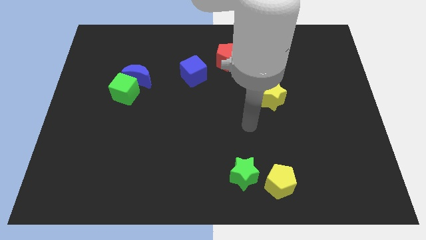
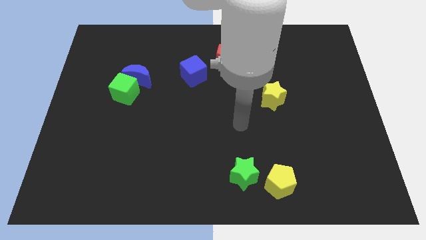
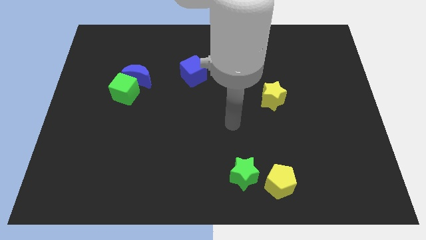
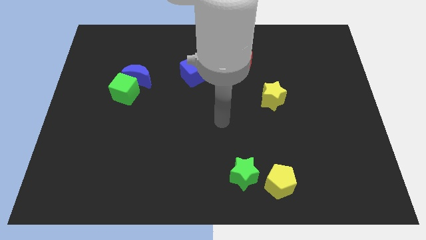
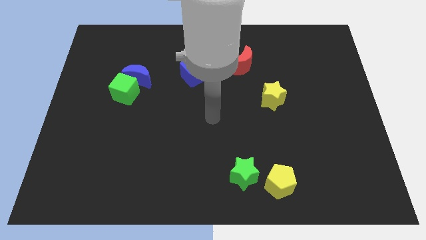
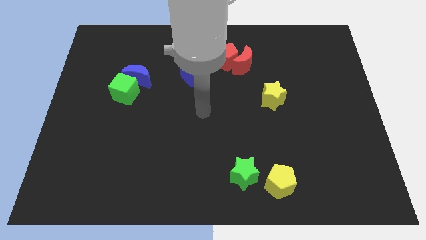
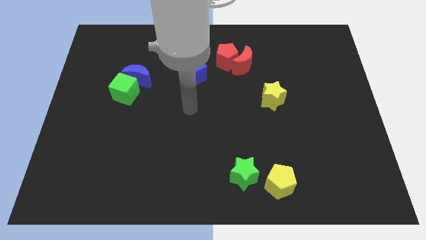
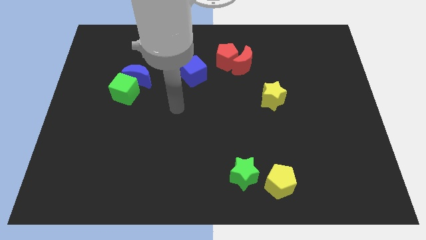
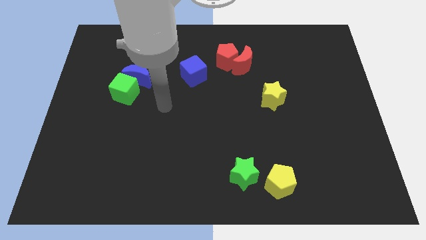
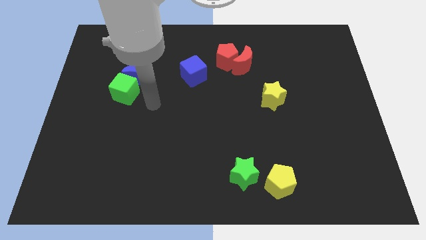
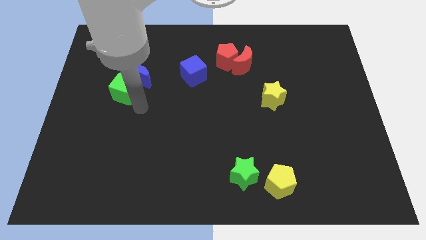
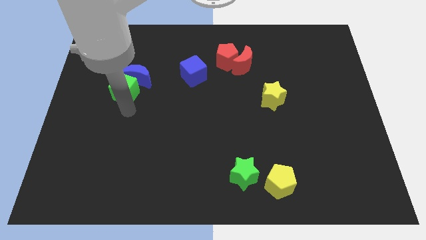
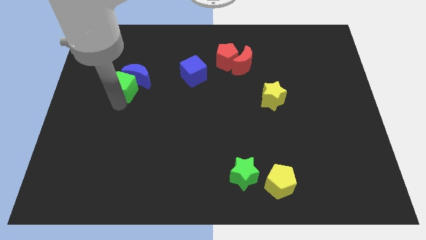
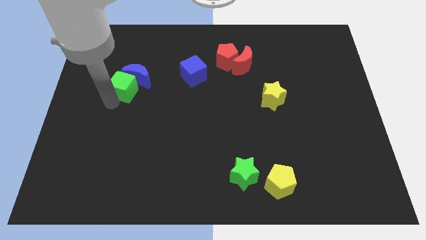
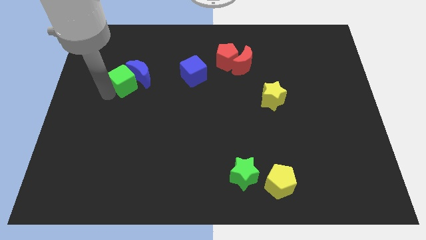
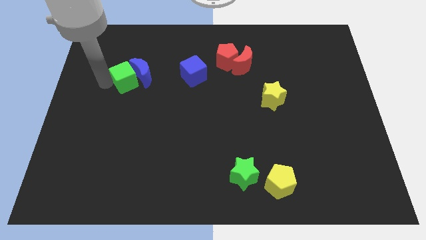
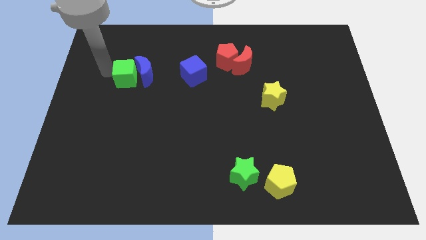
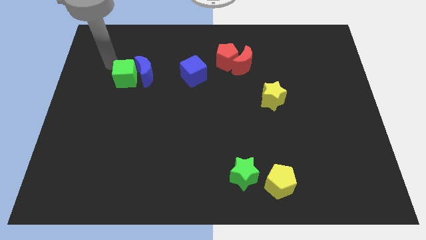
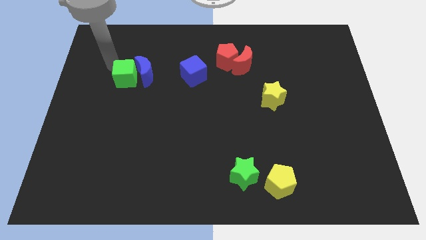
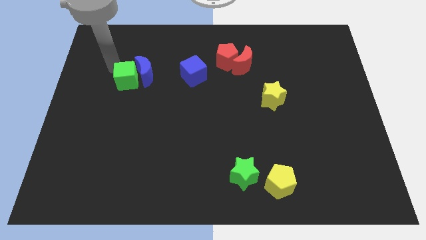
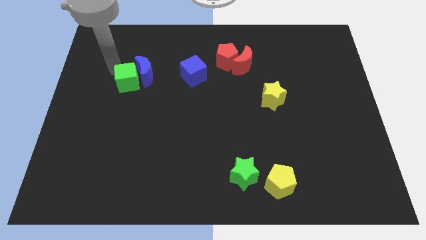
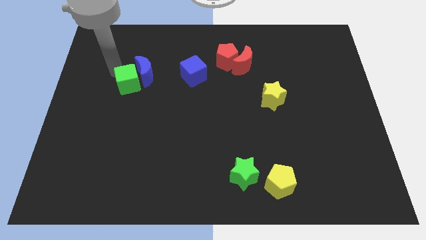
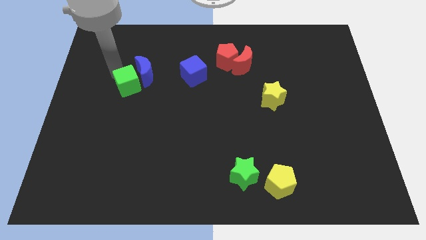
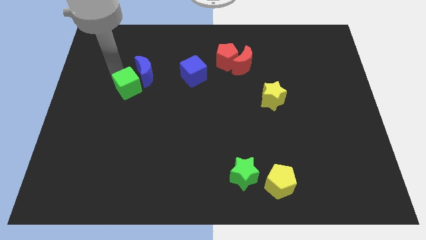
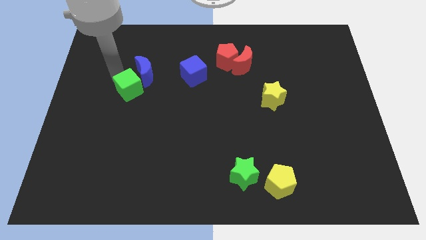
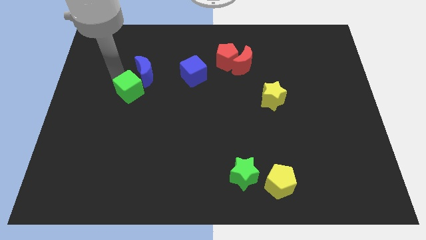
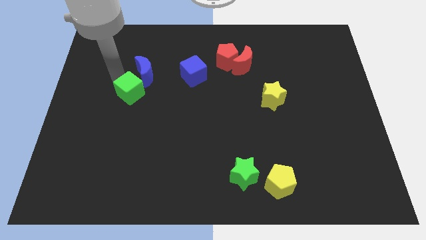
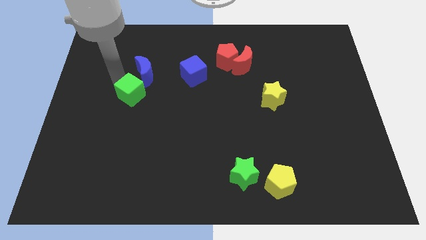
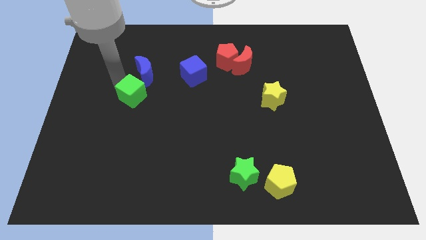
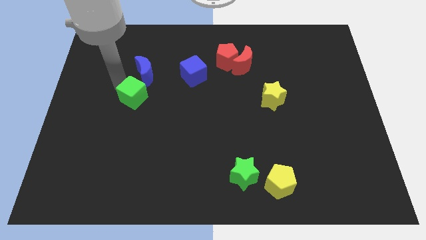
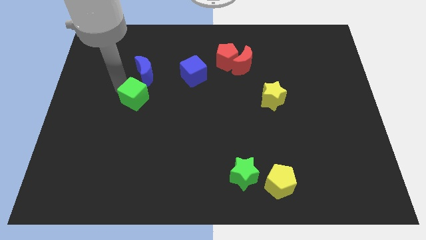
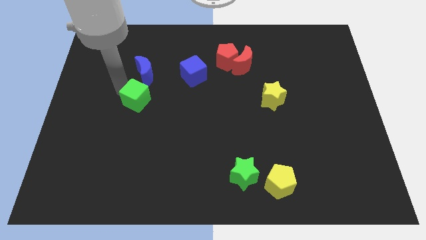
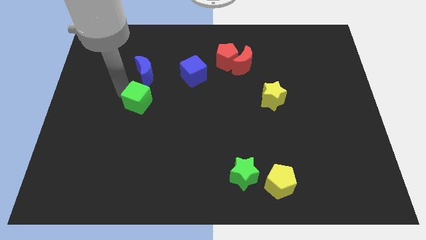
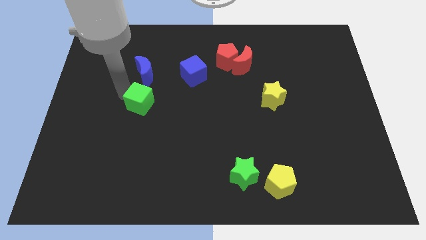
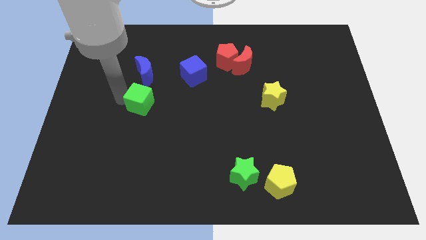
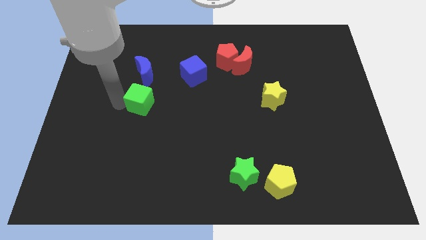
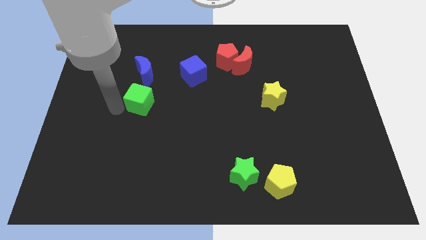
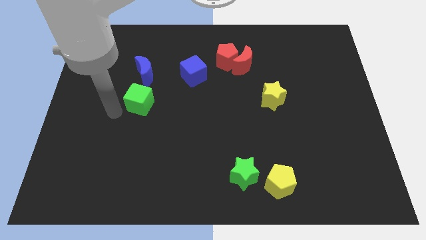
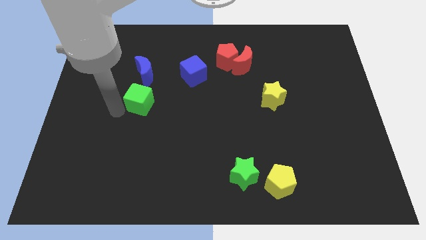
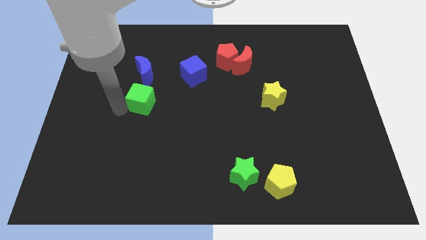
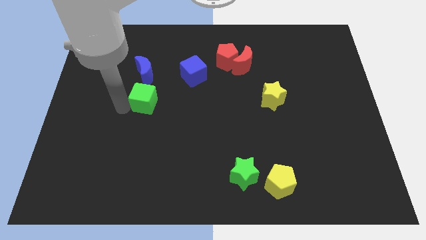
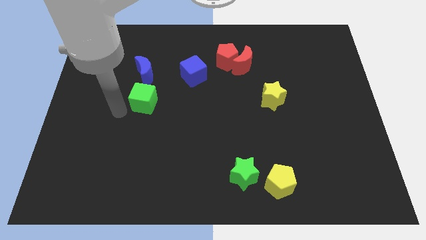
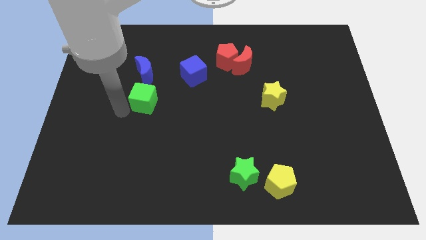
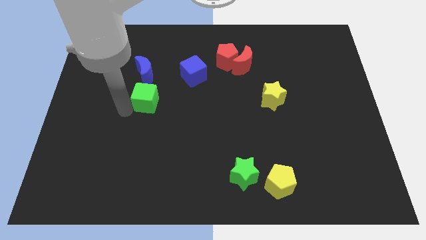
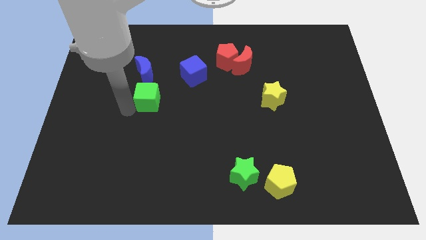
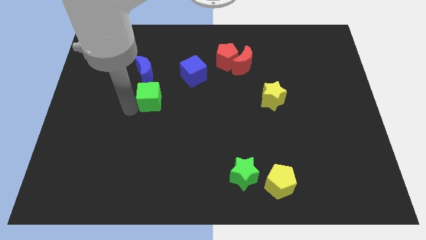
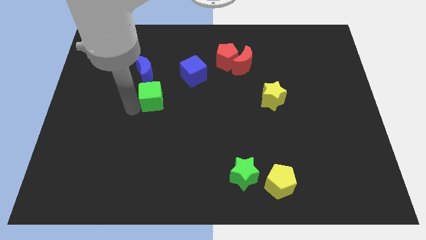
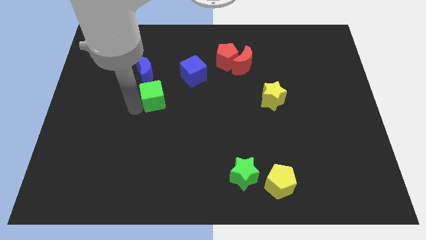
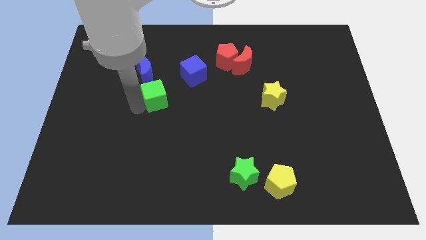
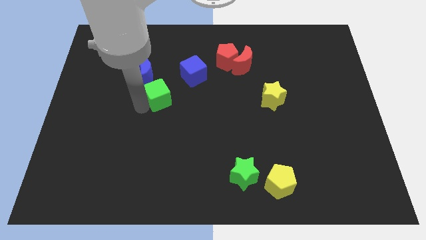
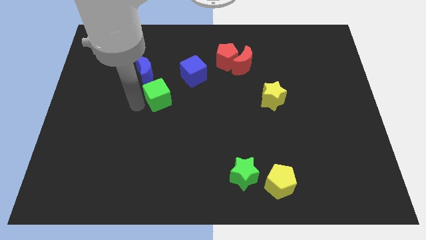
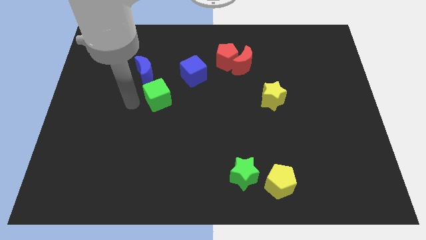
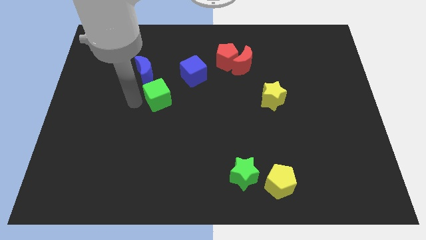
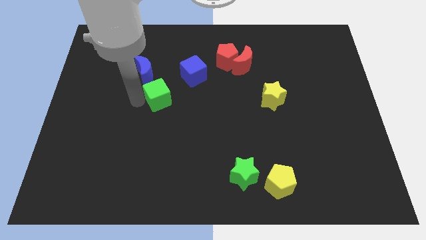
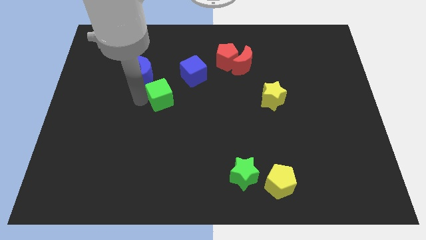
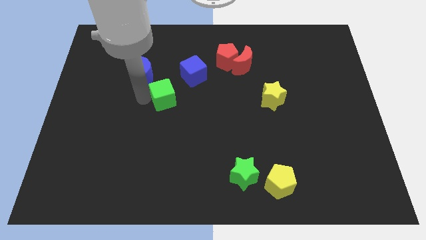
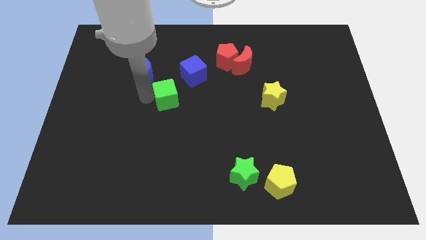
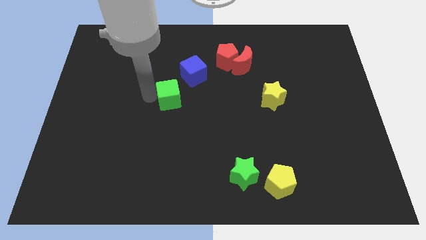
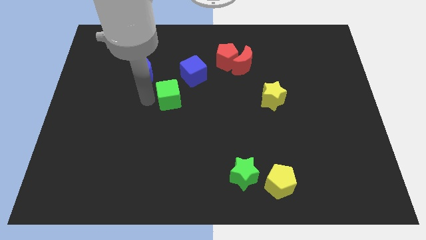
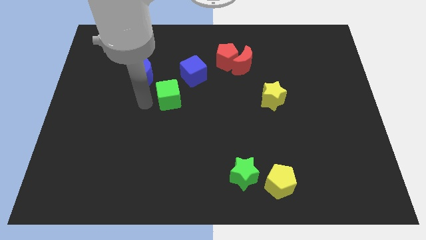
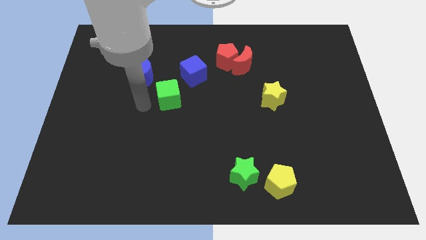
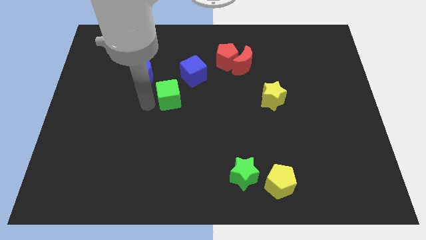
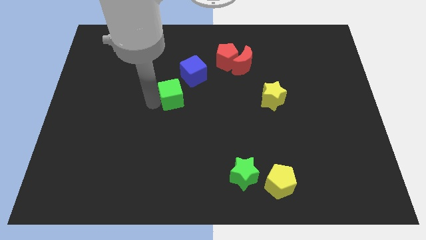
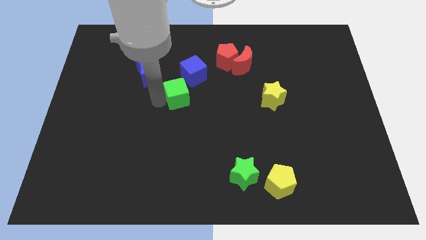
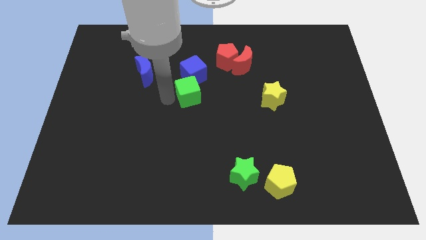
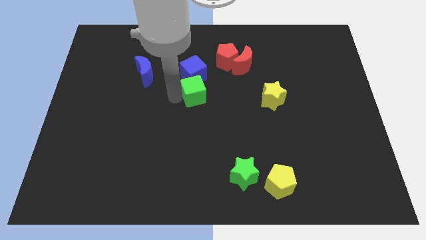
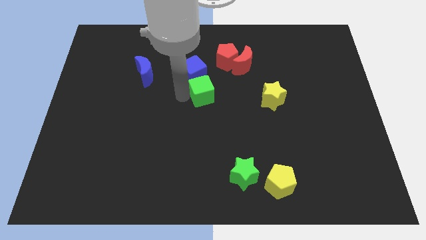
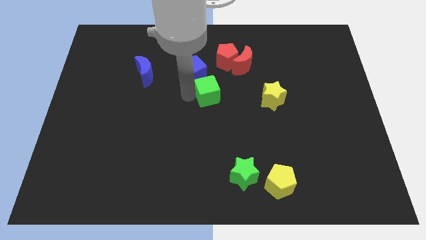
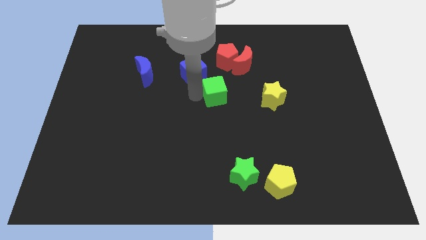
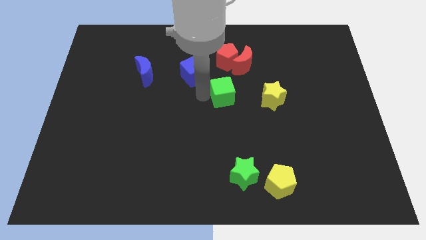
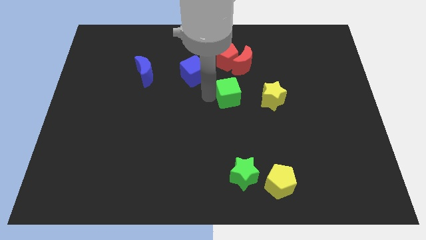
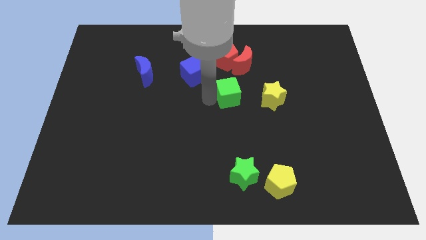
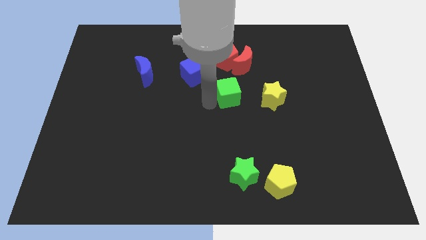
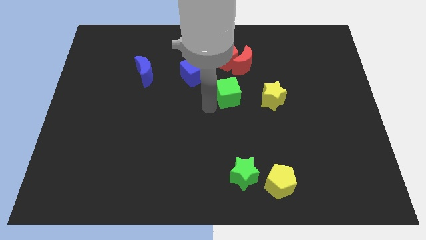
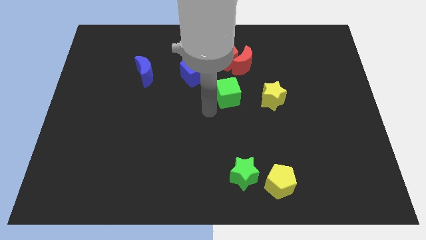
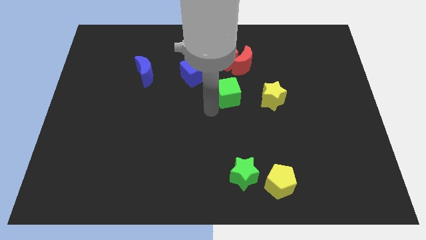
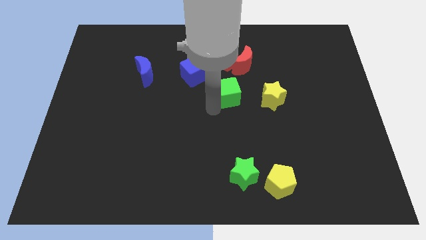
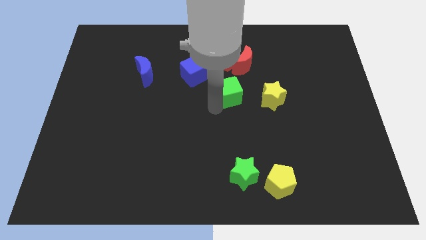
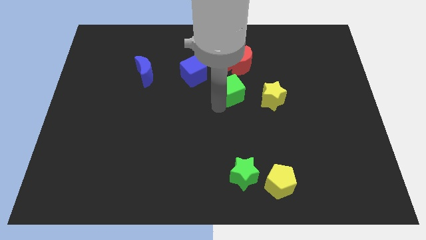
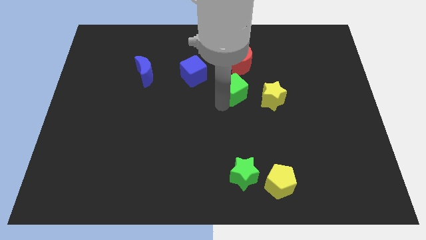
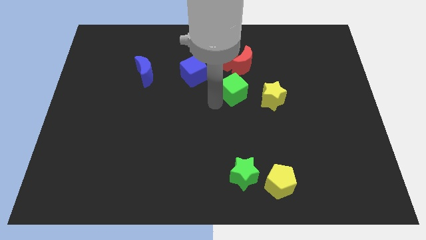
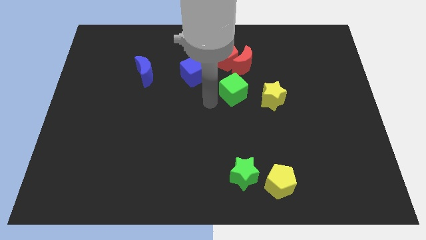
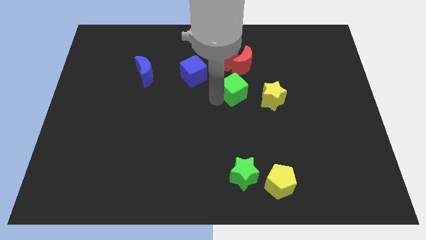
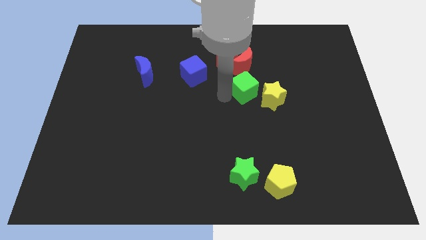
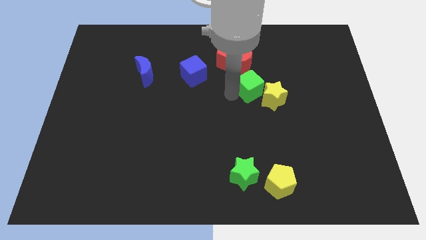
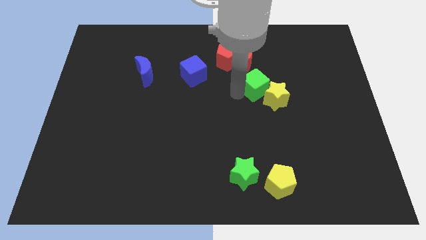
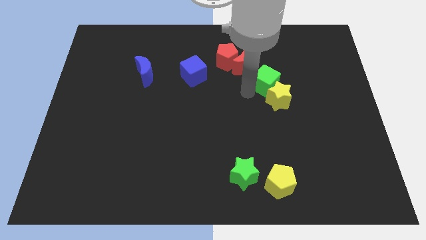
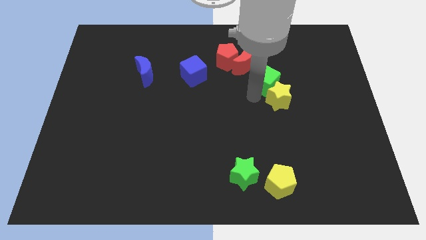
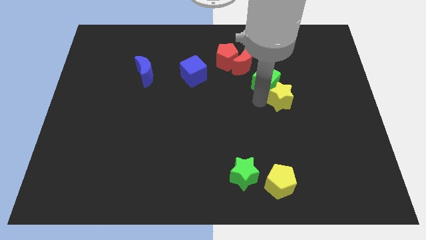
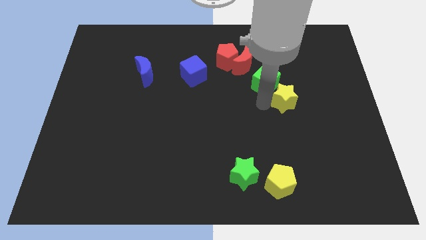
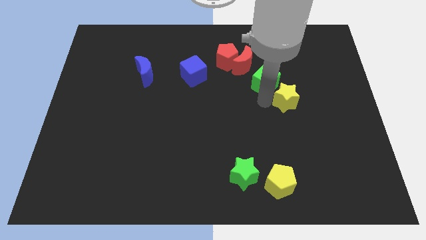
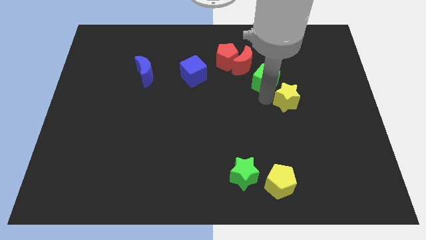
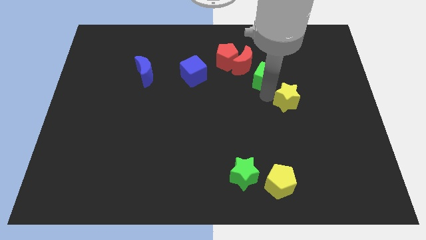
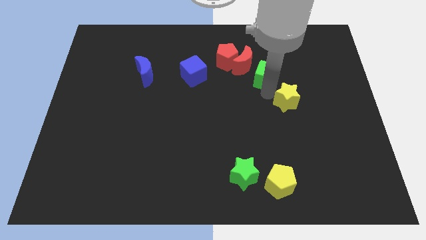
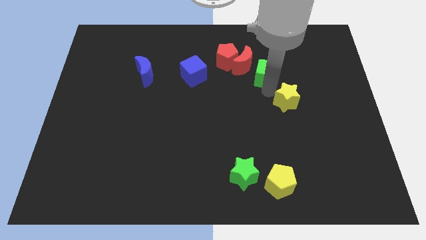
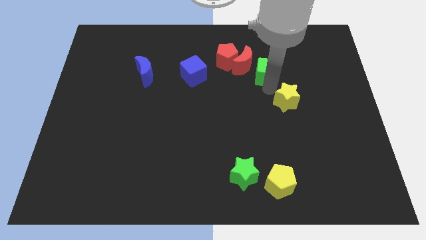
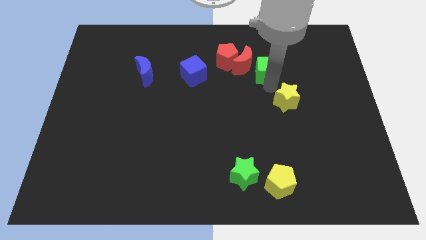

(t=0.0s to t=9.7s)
put the green cube to the right of the red pentagon
